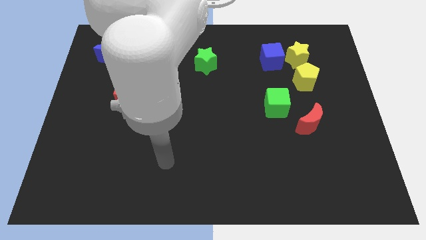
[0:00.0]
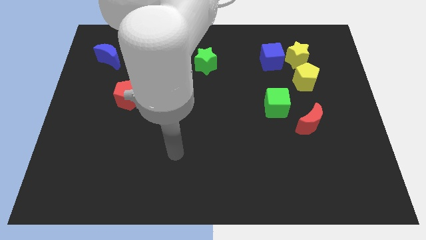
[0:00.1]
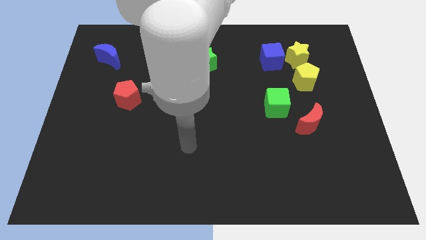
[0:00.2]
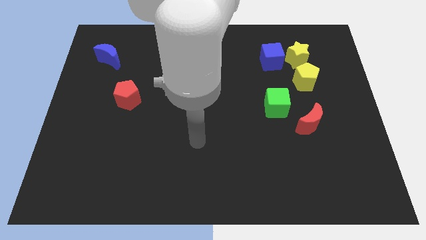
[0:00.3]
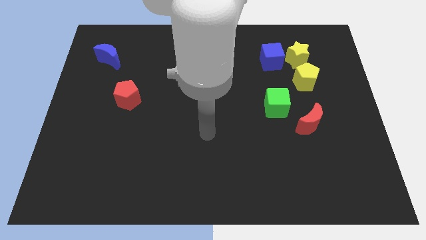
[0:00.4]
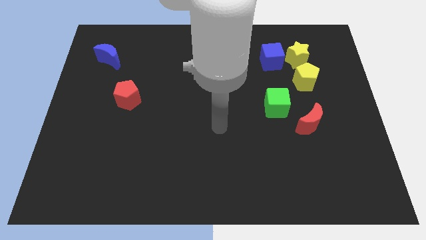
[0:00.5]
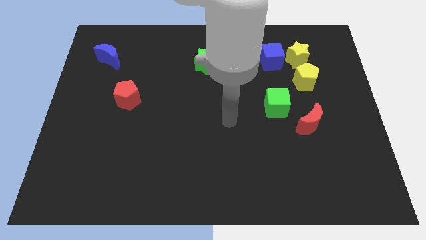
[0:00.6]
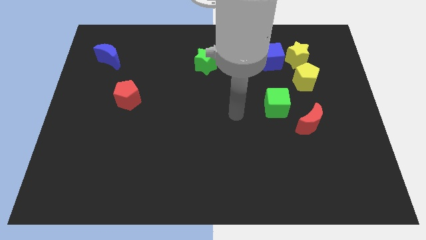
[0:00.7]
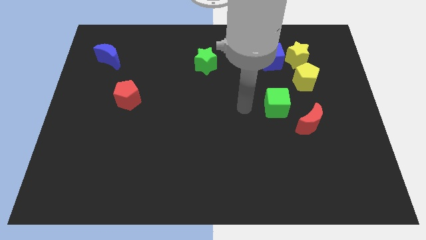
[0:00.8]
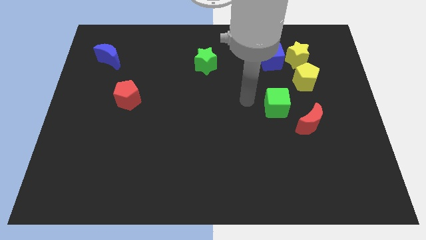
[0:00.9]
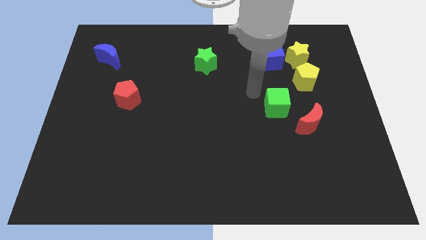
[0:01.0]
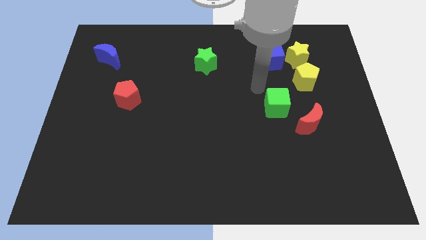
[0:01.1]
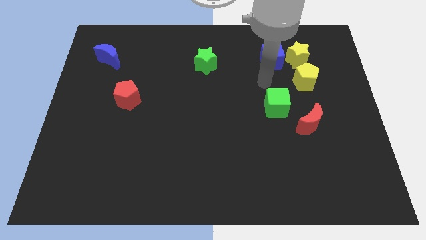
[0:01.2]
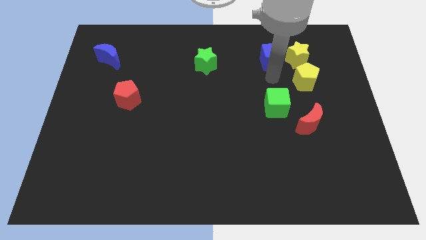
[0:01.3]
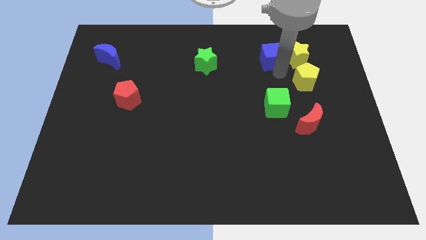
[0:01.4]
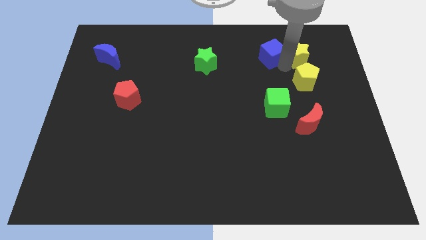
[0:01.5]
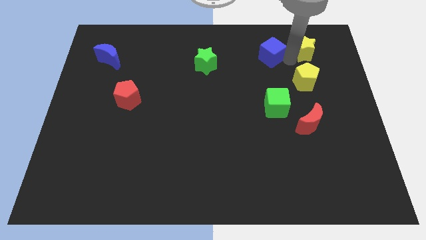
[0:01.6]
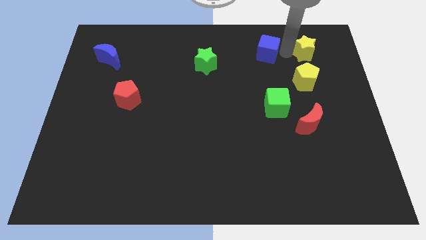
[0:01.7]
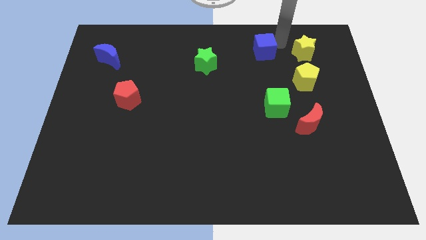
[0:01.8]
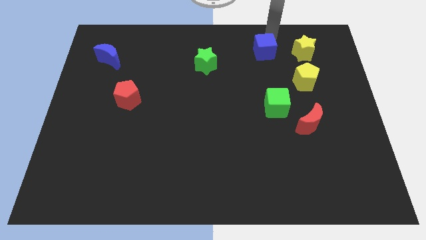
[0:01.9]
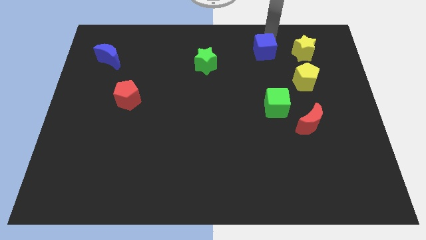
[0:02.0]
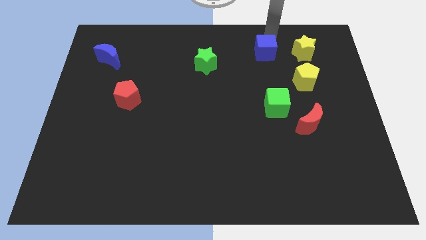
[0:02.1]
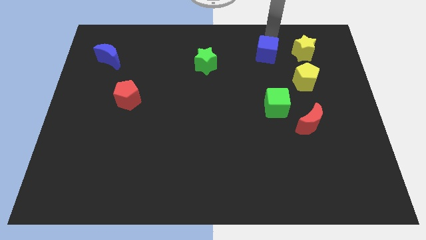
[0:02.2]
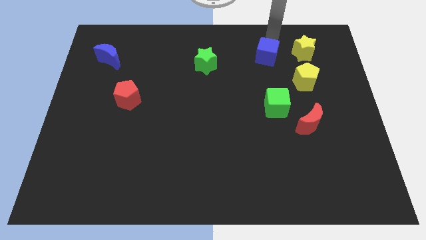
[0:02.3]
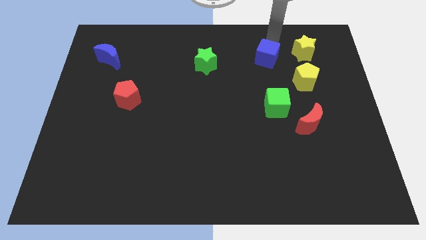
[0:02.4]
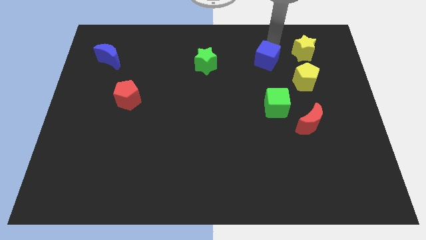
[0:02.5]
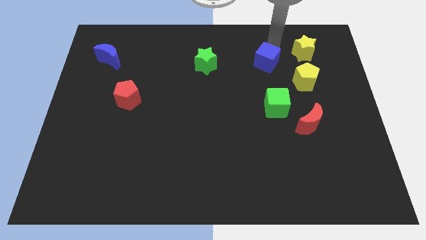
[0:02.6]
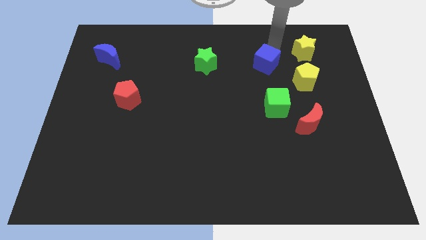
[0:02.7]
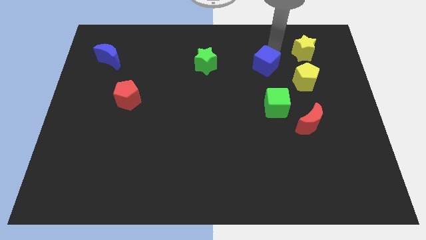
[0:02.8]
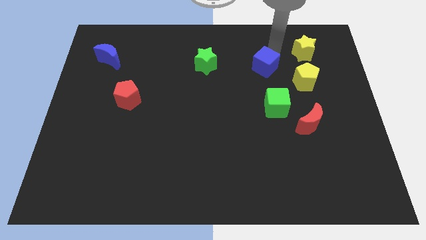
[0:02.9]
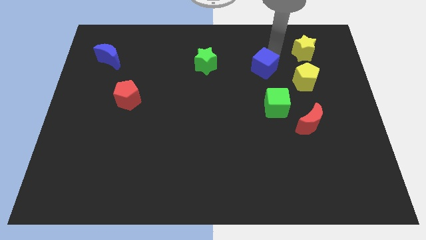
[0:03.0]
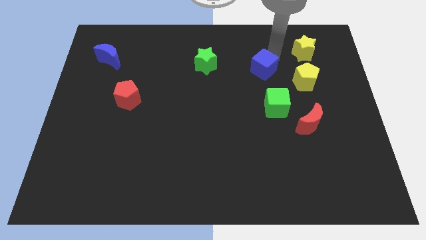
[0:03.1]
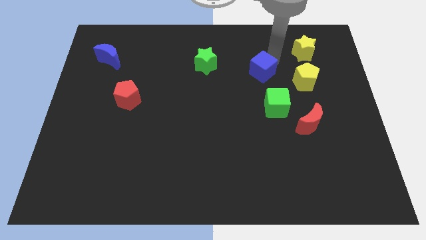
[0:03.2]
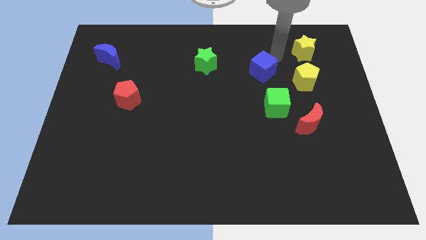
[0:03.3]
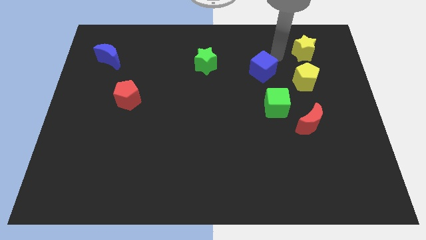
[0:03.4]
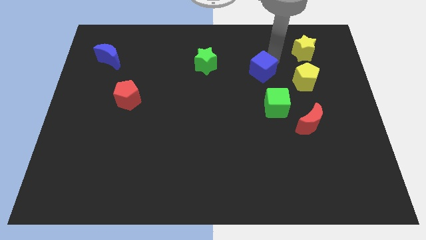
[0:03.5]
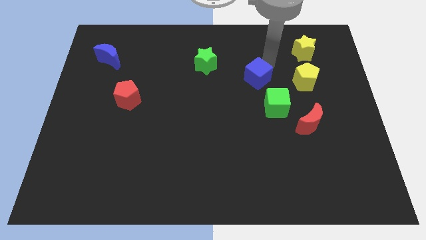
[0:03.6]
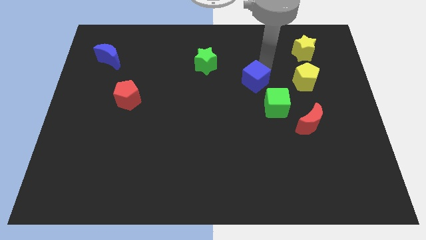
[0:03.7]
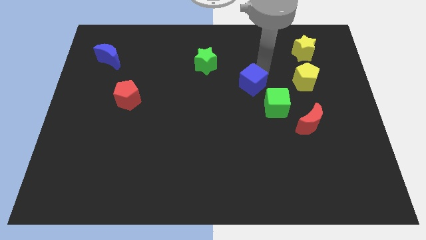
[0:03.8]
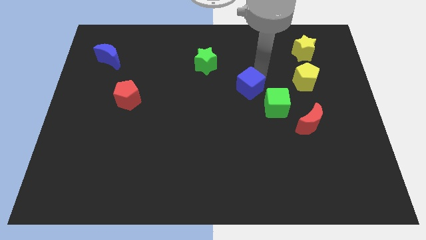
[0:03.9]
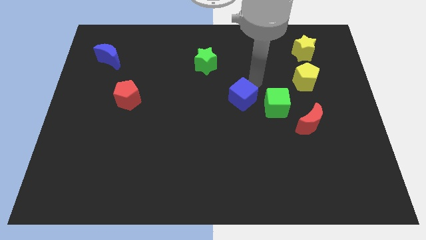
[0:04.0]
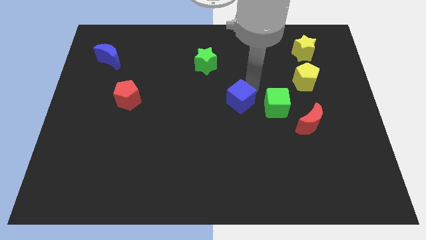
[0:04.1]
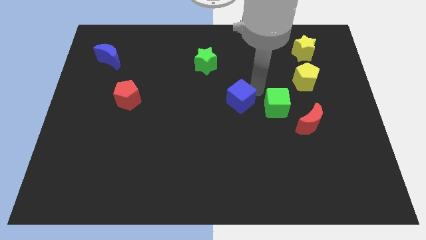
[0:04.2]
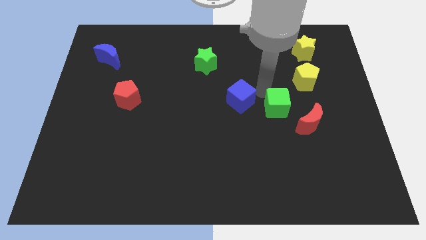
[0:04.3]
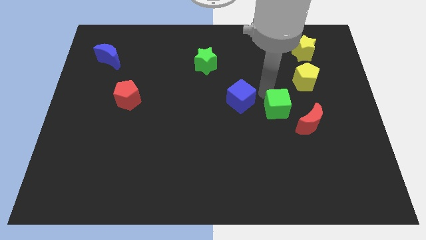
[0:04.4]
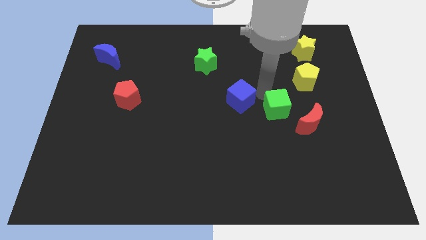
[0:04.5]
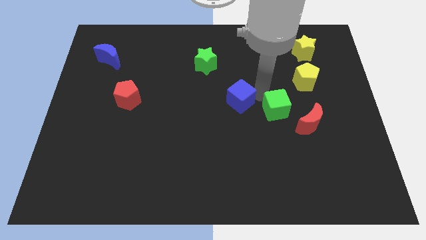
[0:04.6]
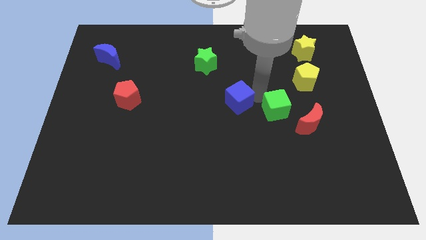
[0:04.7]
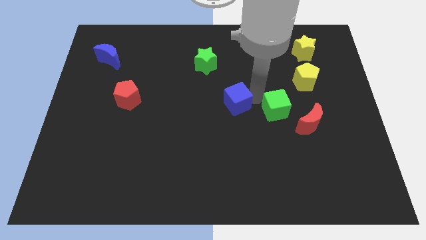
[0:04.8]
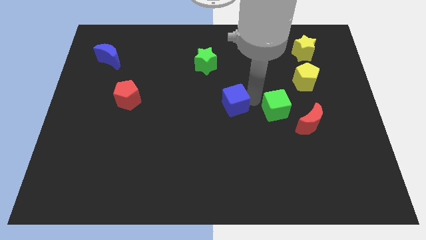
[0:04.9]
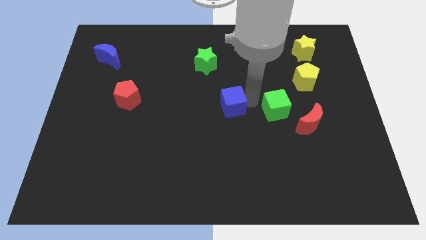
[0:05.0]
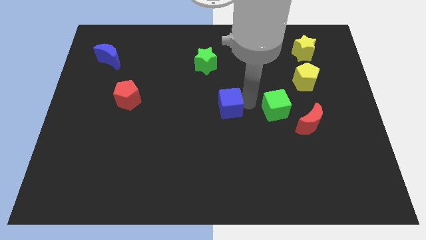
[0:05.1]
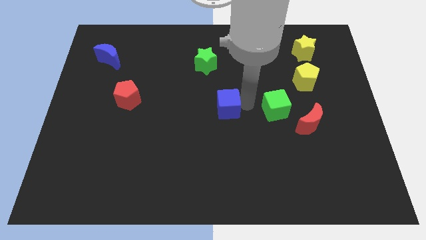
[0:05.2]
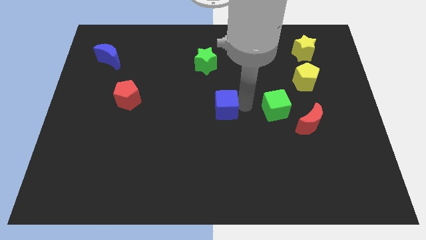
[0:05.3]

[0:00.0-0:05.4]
slide the blue cube downwards and then left

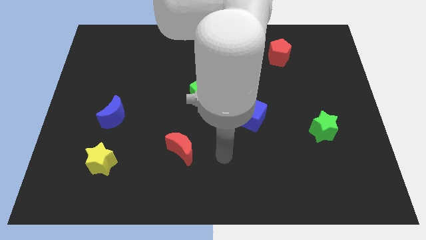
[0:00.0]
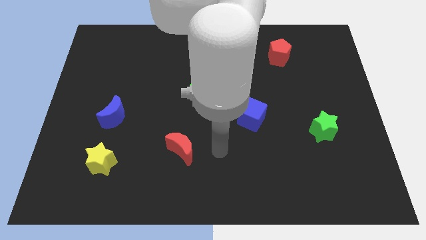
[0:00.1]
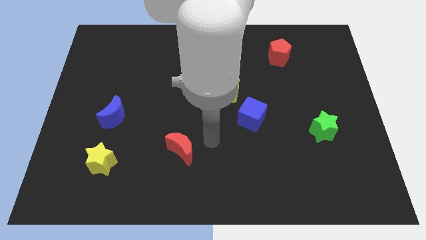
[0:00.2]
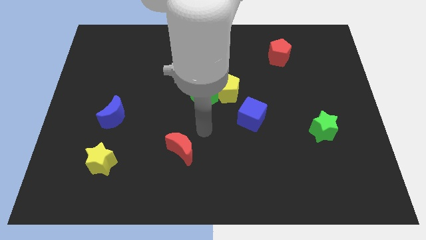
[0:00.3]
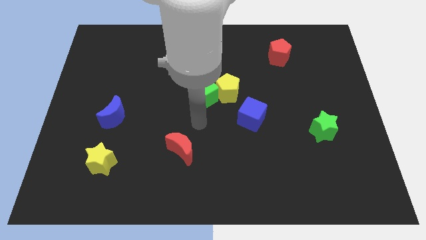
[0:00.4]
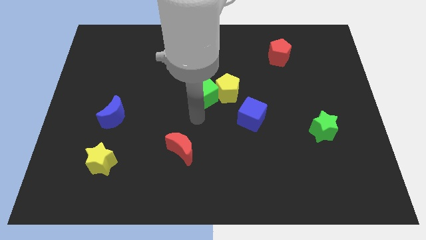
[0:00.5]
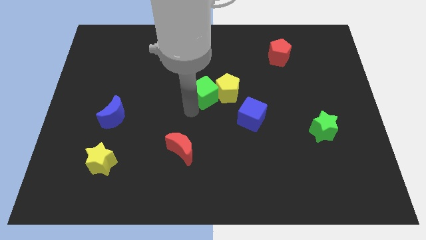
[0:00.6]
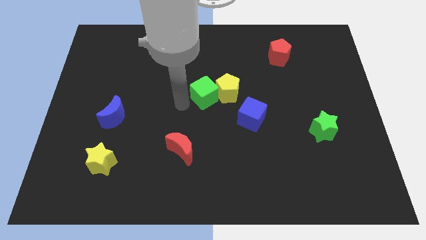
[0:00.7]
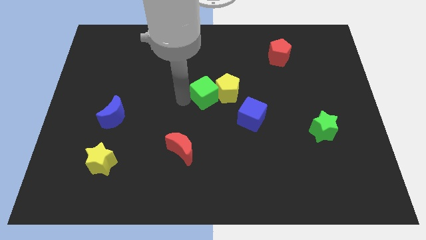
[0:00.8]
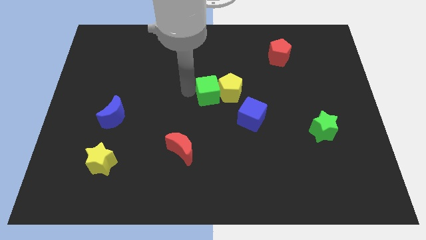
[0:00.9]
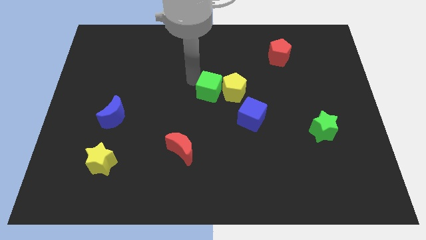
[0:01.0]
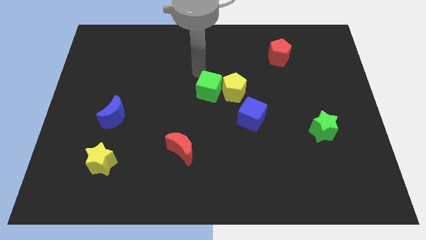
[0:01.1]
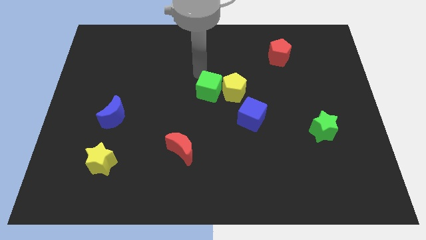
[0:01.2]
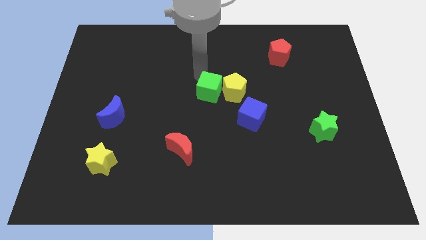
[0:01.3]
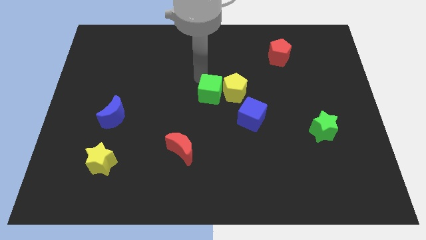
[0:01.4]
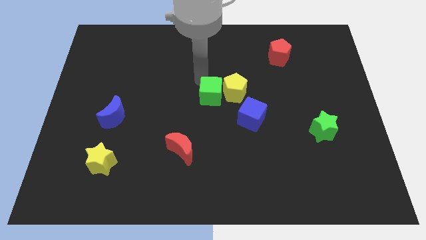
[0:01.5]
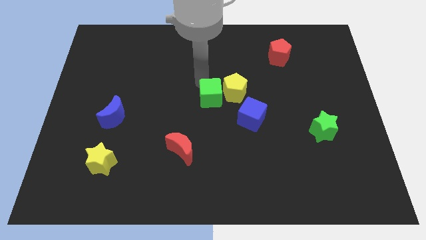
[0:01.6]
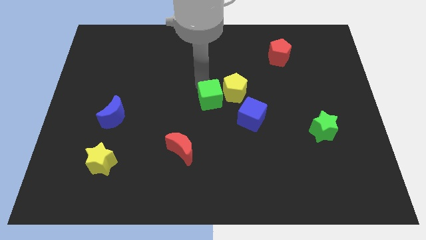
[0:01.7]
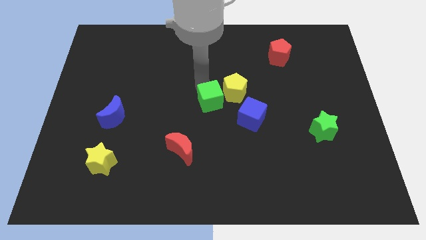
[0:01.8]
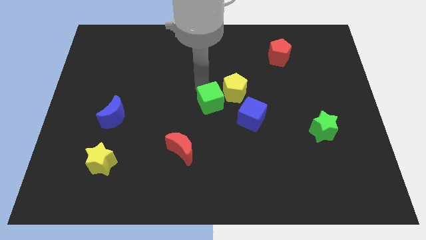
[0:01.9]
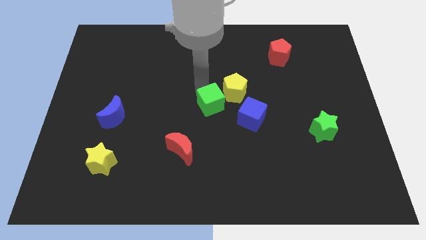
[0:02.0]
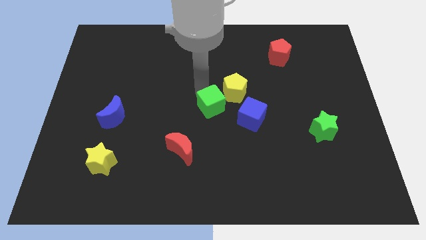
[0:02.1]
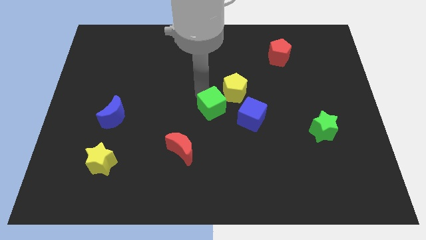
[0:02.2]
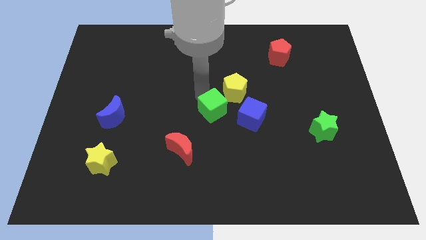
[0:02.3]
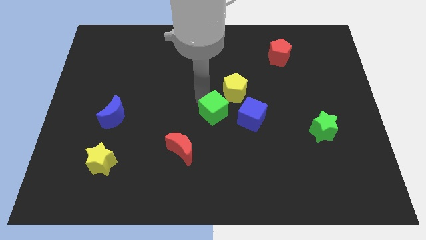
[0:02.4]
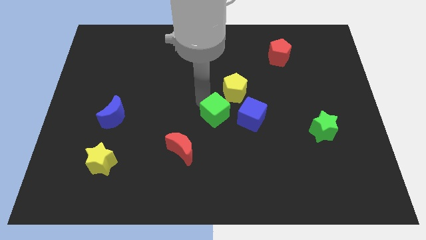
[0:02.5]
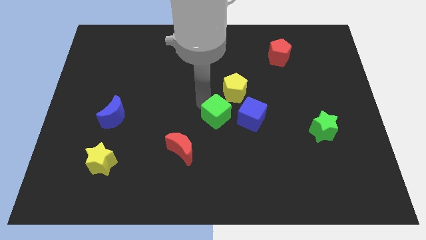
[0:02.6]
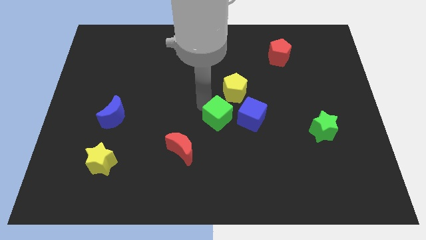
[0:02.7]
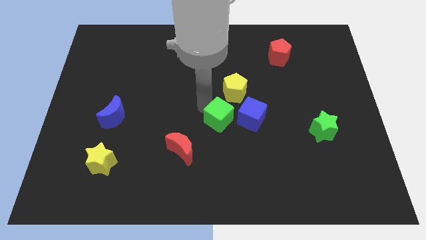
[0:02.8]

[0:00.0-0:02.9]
push the green cube down and right diagonally slightly
